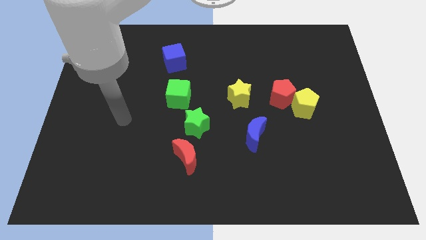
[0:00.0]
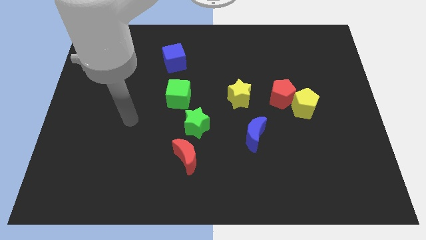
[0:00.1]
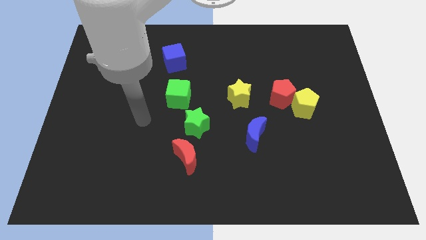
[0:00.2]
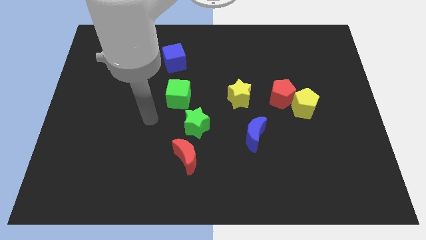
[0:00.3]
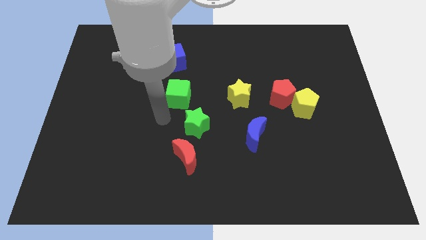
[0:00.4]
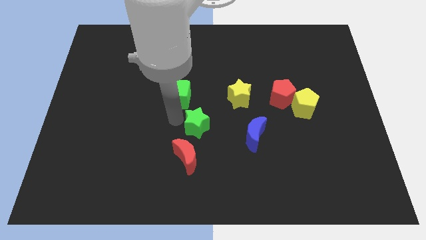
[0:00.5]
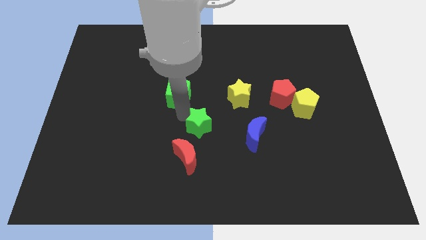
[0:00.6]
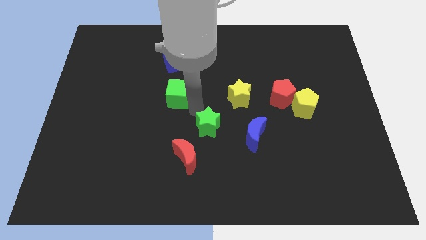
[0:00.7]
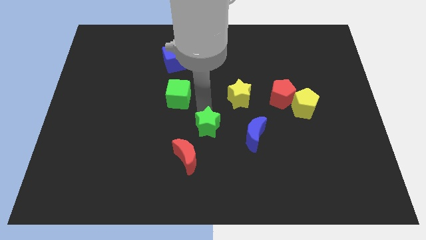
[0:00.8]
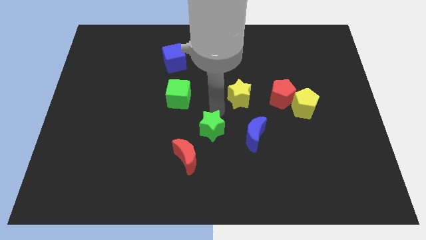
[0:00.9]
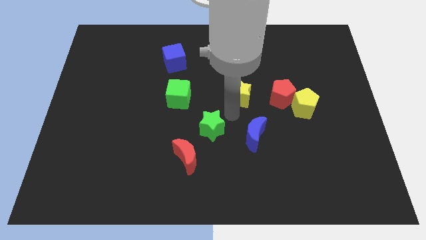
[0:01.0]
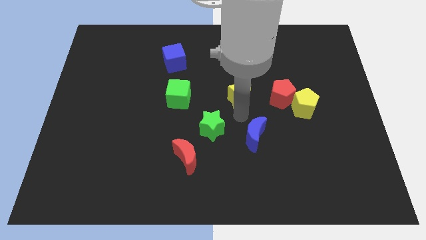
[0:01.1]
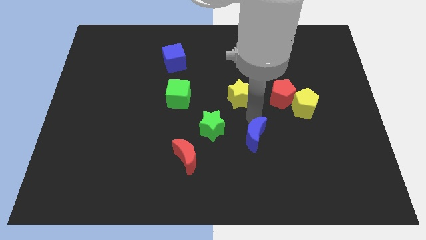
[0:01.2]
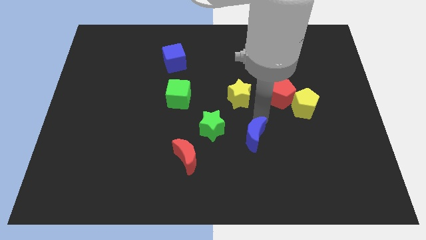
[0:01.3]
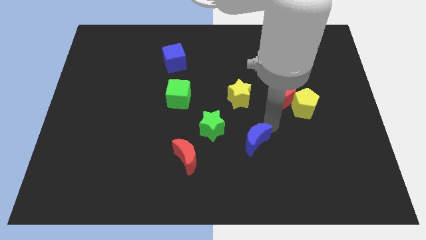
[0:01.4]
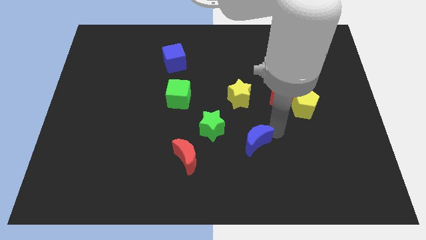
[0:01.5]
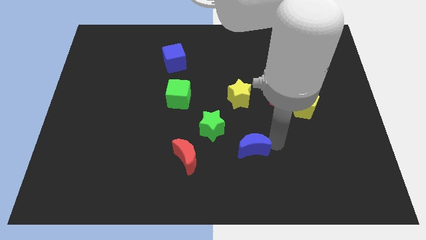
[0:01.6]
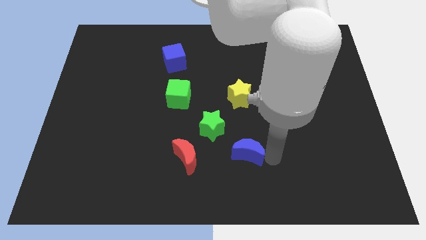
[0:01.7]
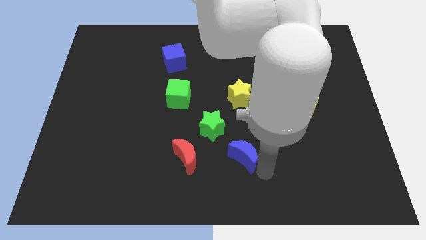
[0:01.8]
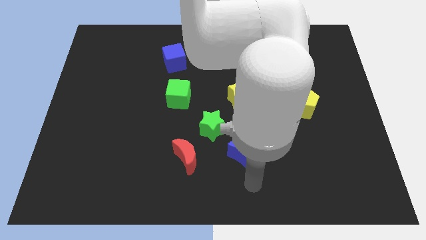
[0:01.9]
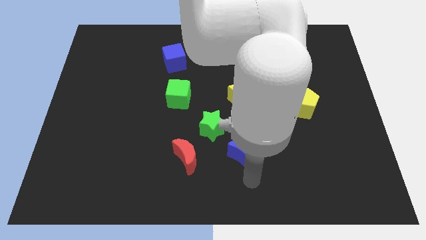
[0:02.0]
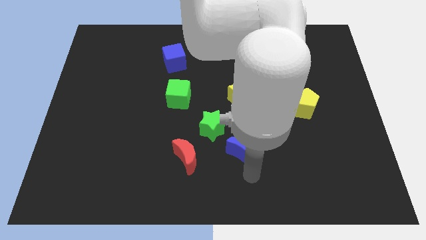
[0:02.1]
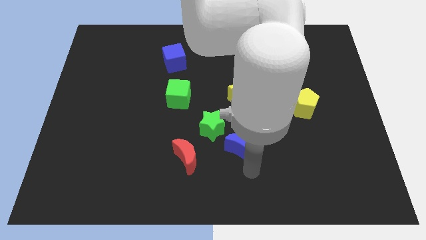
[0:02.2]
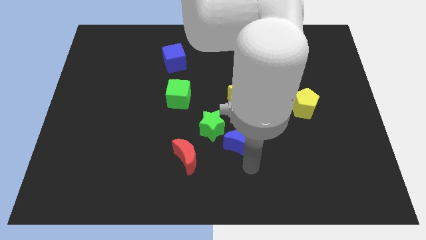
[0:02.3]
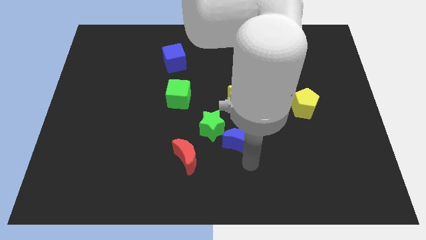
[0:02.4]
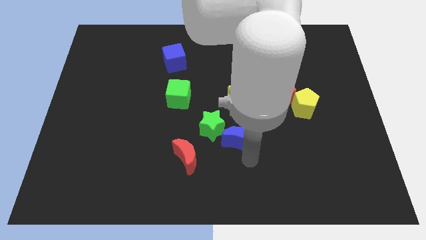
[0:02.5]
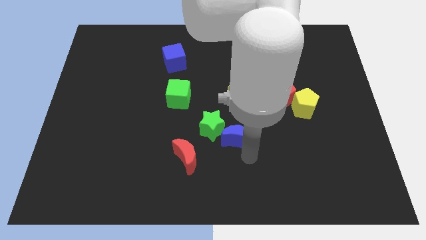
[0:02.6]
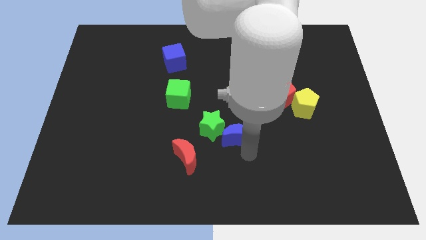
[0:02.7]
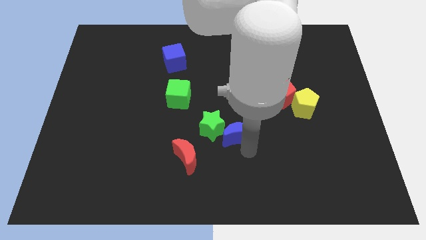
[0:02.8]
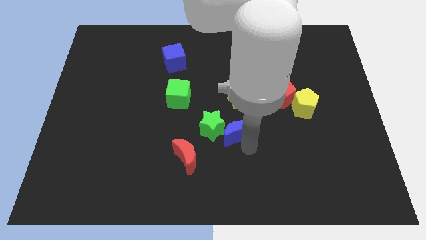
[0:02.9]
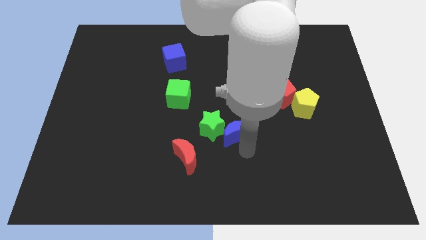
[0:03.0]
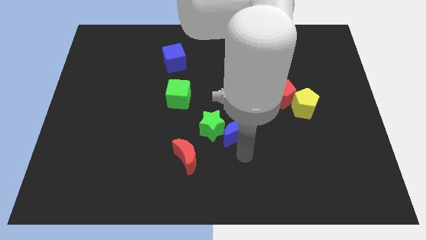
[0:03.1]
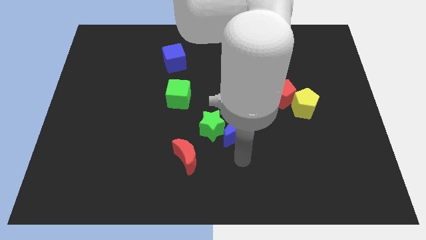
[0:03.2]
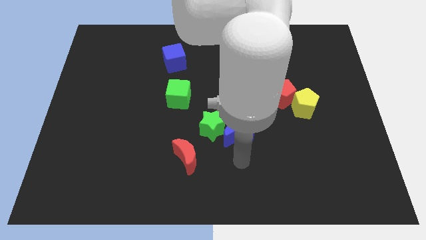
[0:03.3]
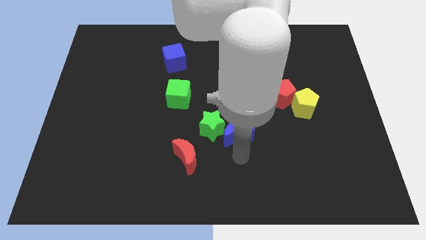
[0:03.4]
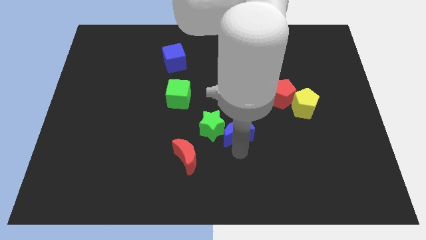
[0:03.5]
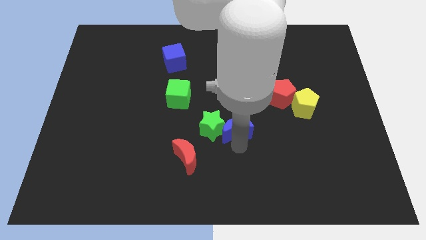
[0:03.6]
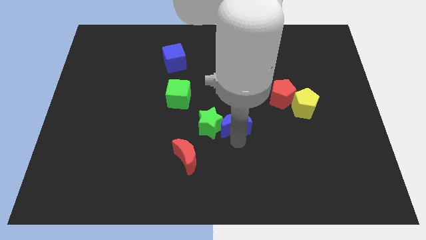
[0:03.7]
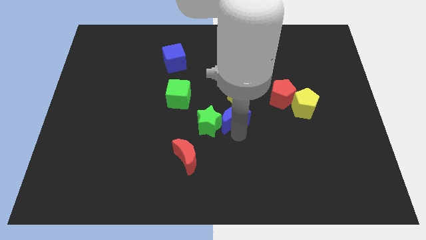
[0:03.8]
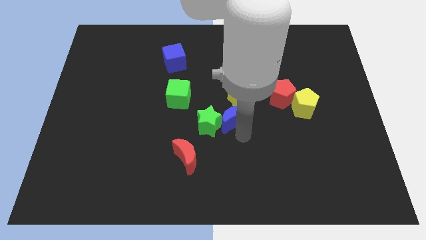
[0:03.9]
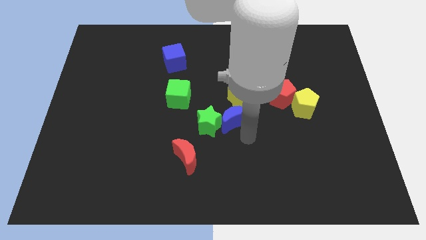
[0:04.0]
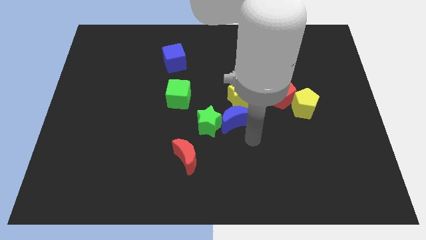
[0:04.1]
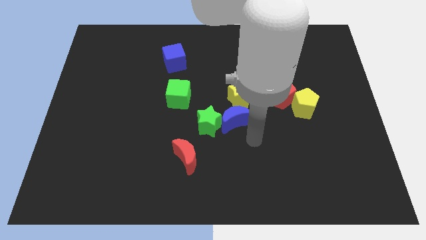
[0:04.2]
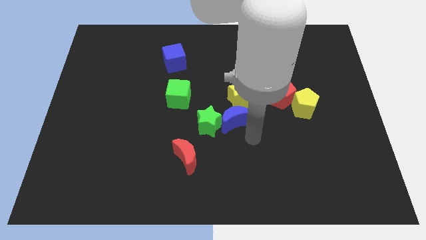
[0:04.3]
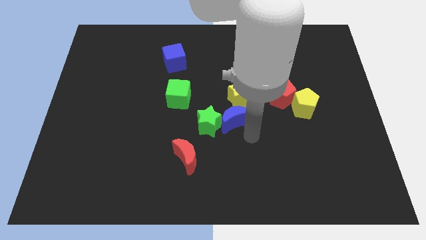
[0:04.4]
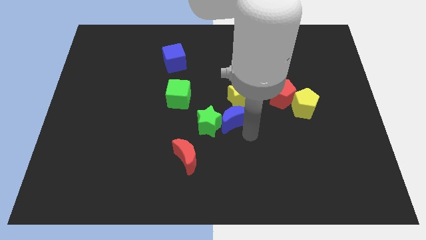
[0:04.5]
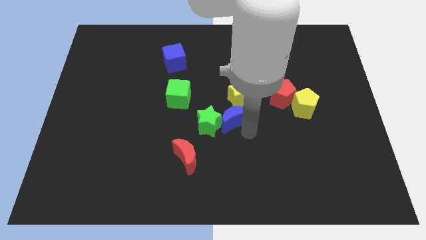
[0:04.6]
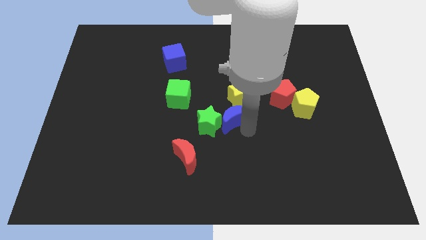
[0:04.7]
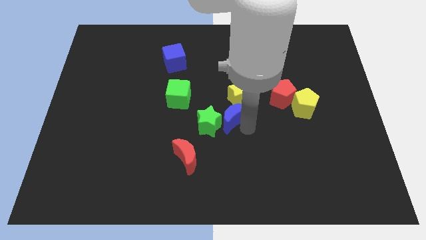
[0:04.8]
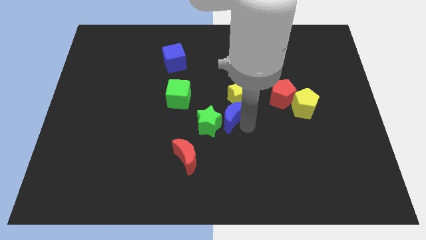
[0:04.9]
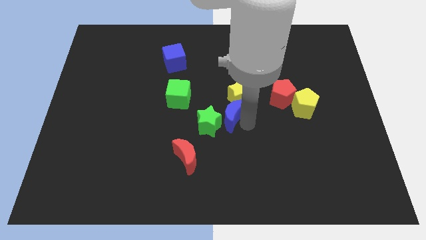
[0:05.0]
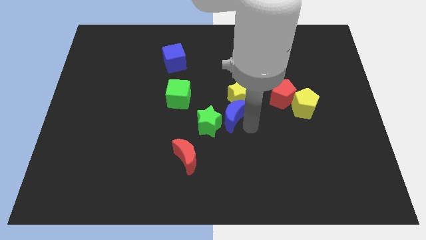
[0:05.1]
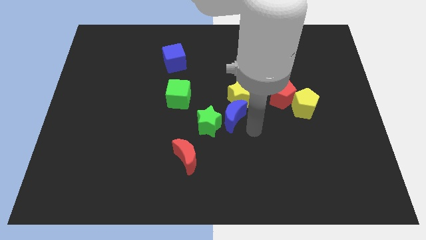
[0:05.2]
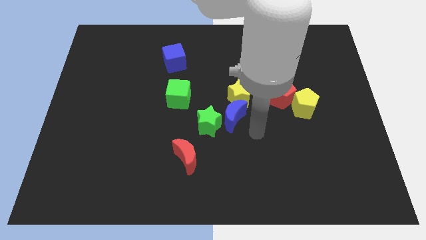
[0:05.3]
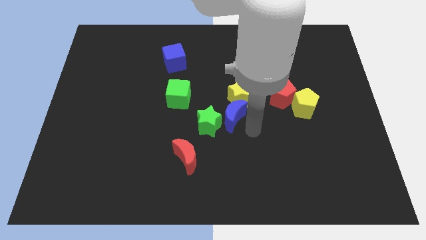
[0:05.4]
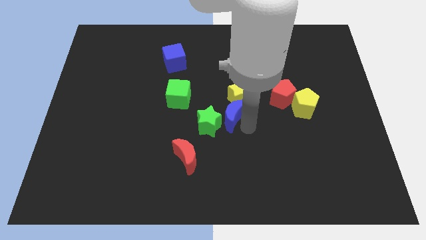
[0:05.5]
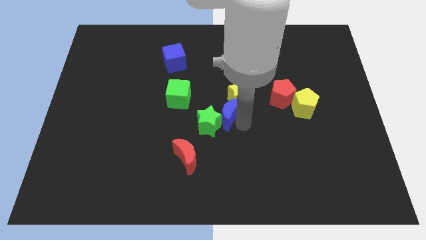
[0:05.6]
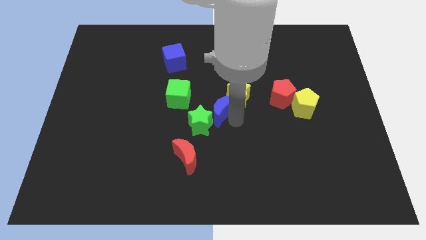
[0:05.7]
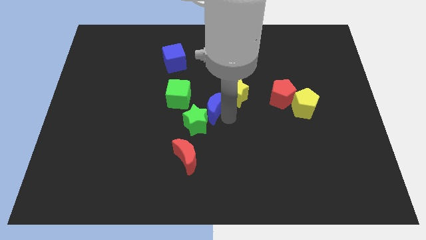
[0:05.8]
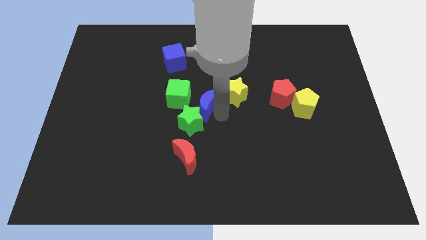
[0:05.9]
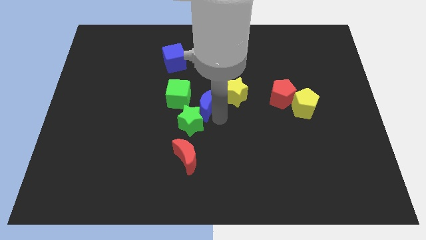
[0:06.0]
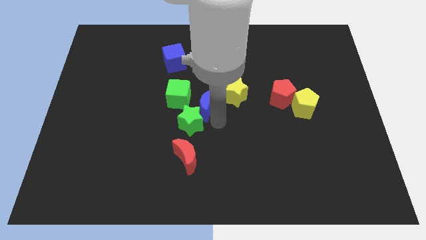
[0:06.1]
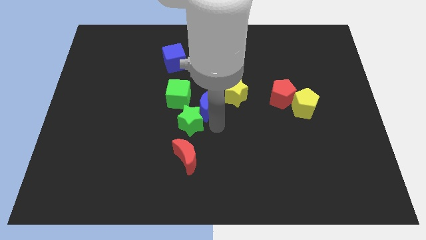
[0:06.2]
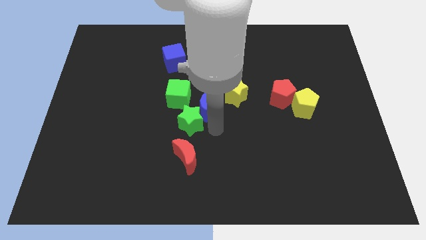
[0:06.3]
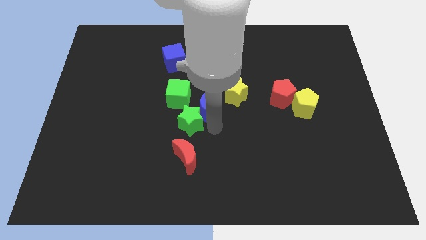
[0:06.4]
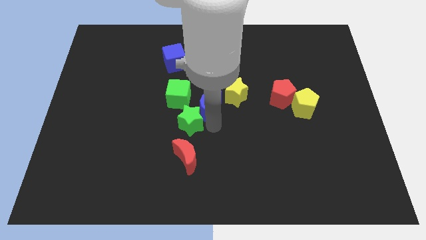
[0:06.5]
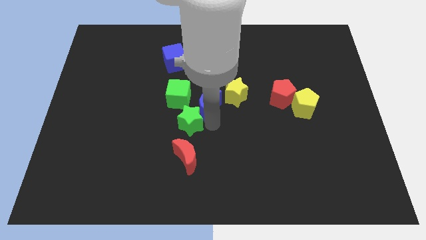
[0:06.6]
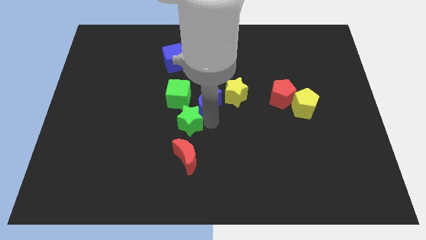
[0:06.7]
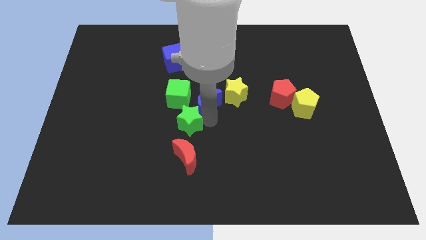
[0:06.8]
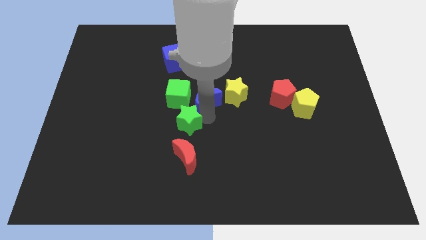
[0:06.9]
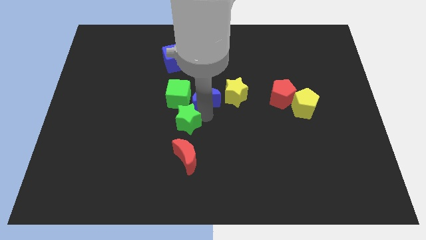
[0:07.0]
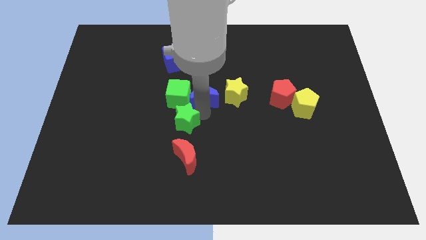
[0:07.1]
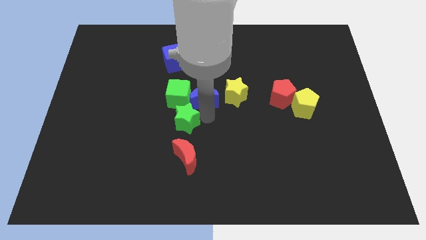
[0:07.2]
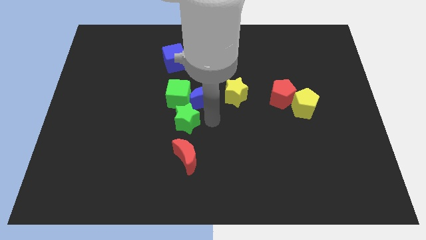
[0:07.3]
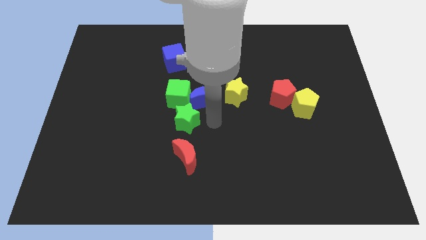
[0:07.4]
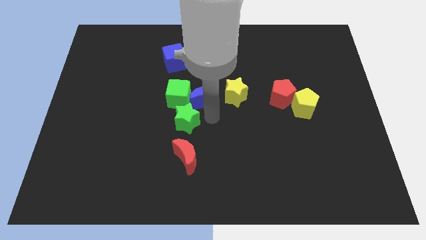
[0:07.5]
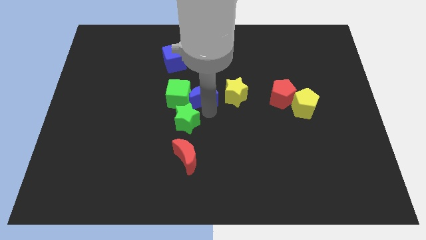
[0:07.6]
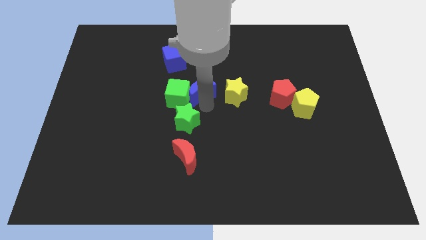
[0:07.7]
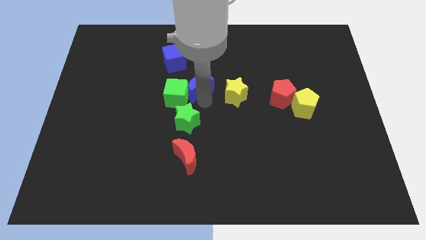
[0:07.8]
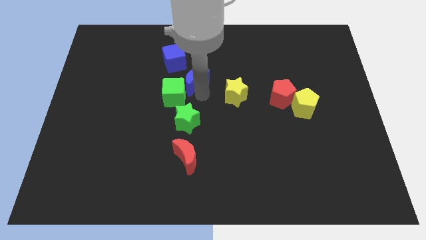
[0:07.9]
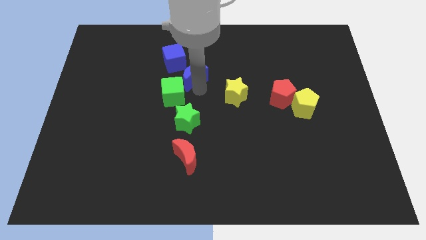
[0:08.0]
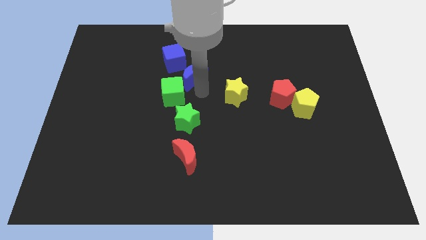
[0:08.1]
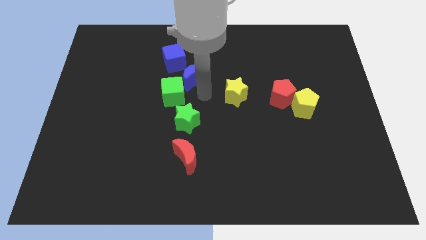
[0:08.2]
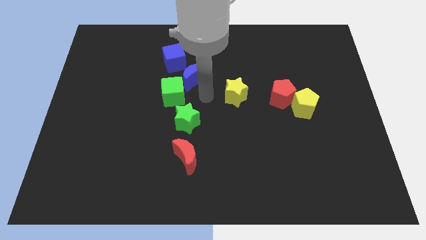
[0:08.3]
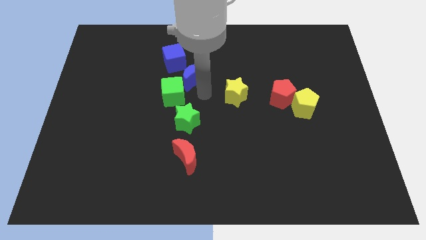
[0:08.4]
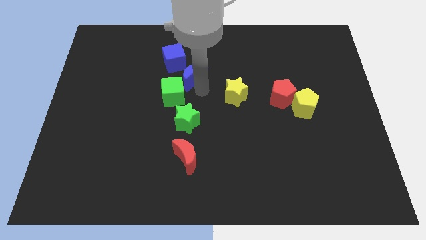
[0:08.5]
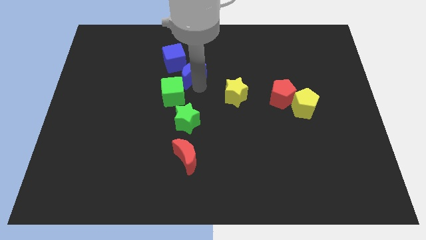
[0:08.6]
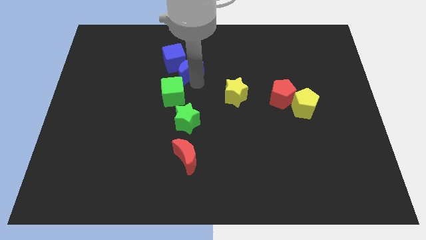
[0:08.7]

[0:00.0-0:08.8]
push the blue moon next to the blue cube
